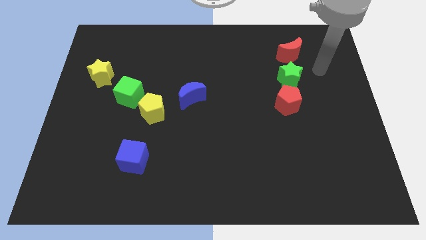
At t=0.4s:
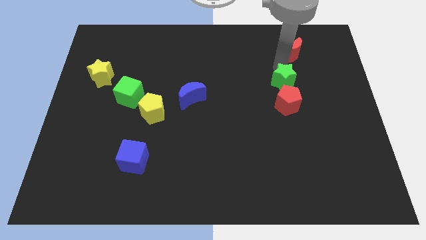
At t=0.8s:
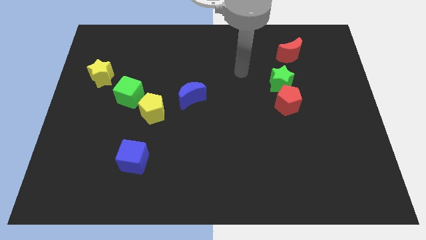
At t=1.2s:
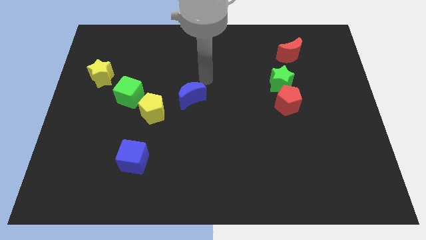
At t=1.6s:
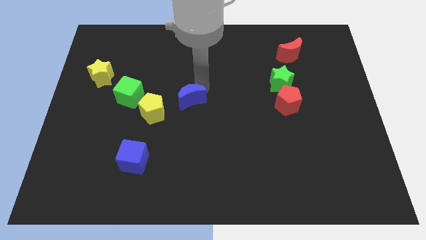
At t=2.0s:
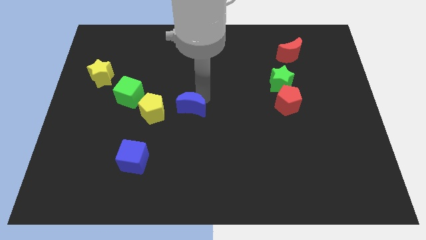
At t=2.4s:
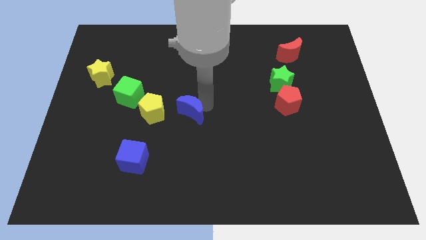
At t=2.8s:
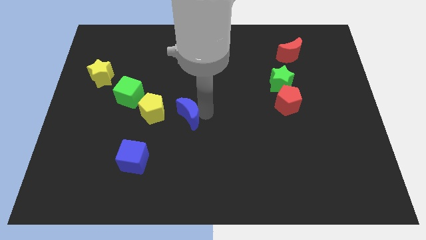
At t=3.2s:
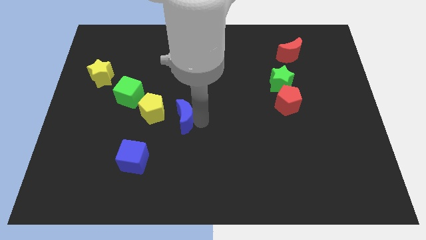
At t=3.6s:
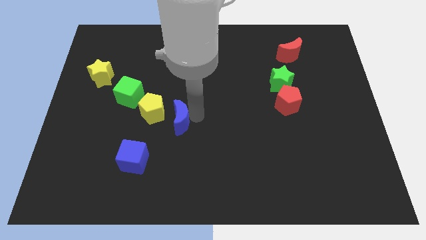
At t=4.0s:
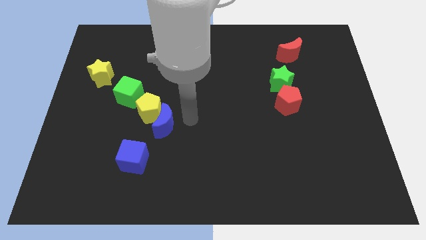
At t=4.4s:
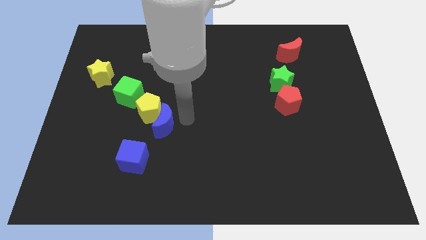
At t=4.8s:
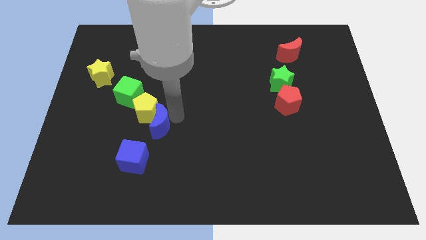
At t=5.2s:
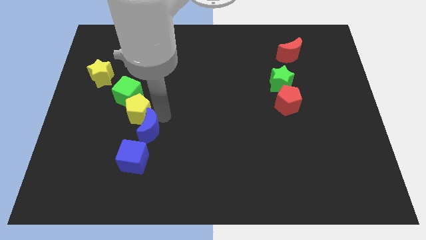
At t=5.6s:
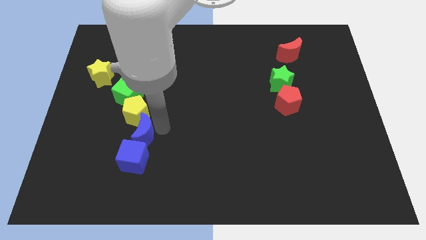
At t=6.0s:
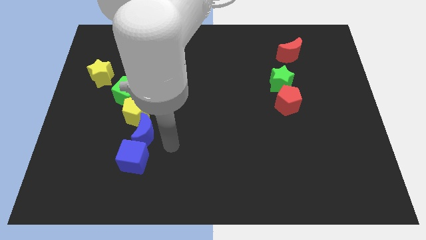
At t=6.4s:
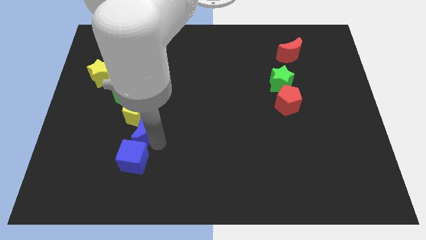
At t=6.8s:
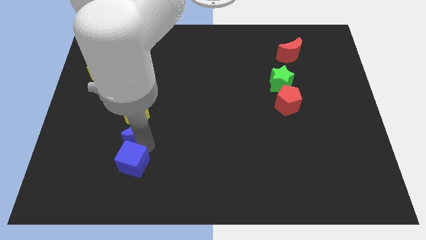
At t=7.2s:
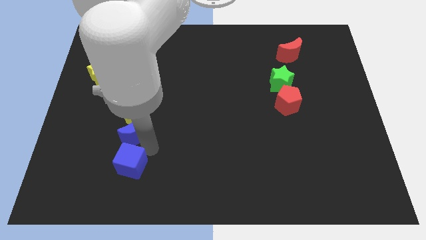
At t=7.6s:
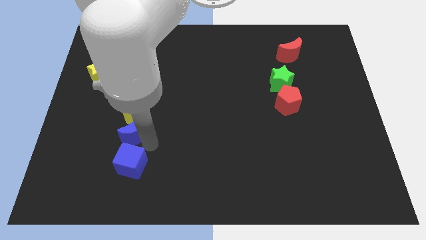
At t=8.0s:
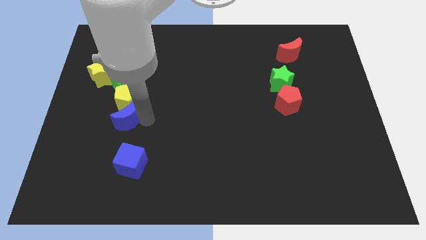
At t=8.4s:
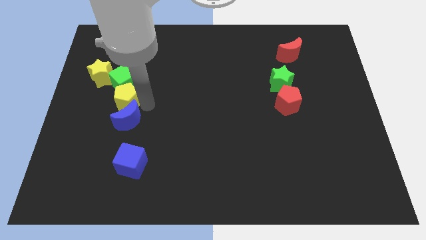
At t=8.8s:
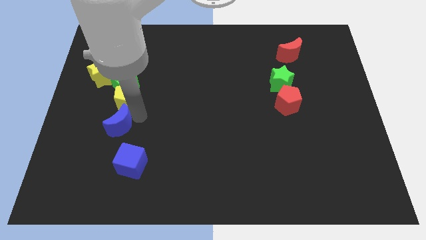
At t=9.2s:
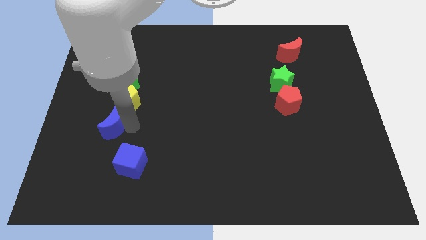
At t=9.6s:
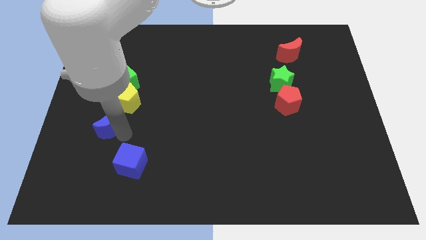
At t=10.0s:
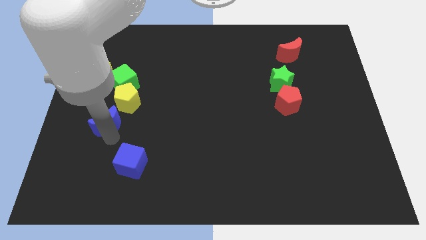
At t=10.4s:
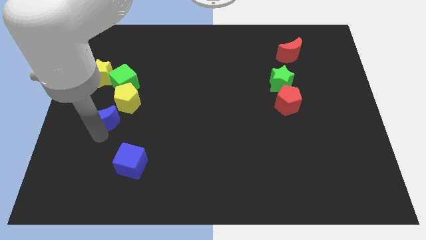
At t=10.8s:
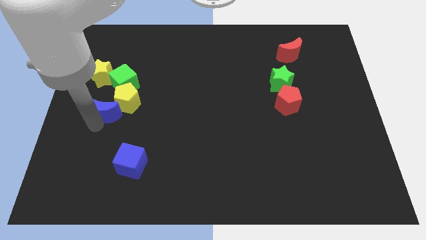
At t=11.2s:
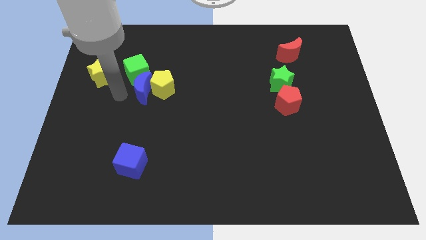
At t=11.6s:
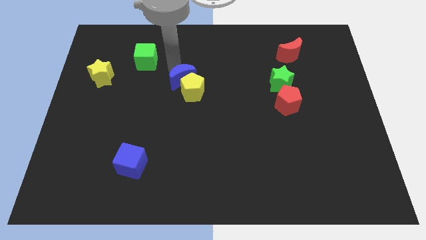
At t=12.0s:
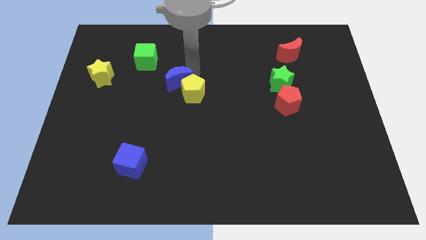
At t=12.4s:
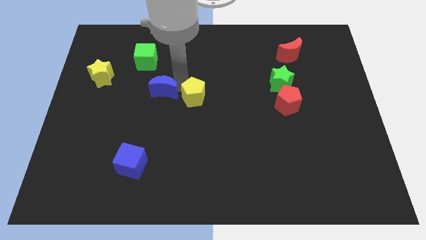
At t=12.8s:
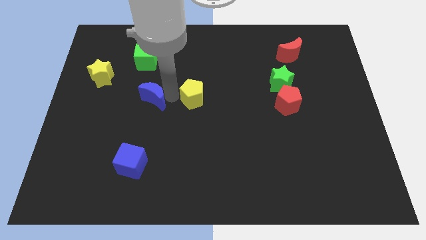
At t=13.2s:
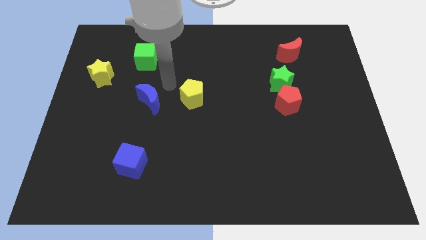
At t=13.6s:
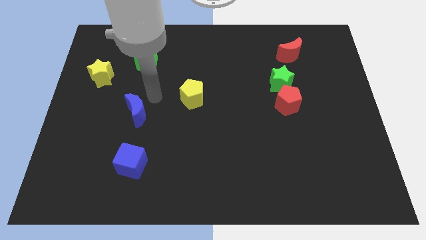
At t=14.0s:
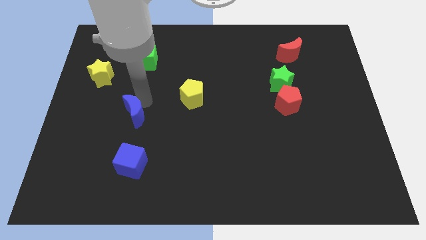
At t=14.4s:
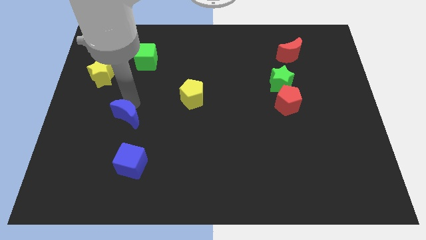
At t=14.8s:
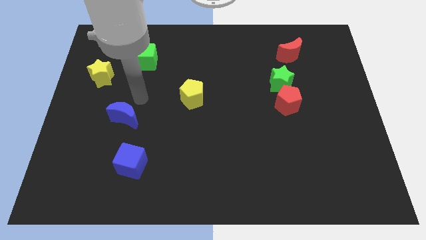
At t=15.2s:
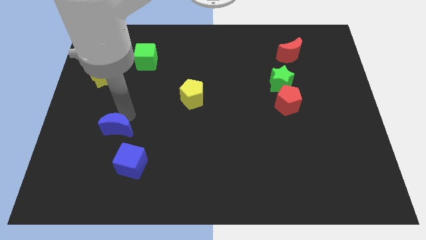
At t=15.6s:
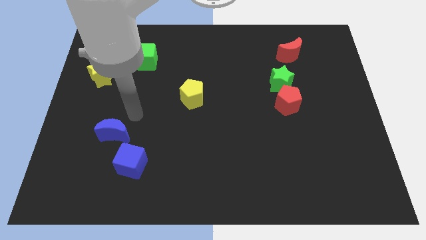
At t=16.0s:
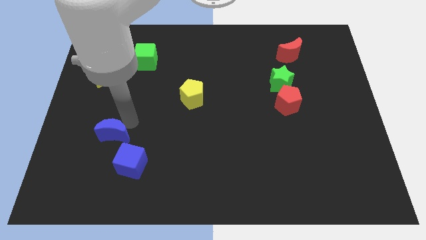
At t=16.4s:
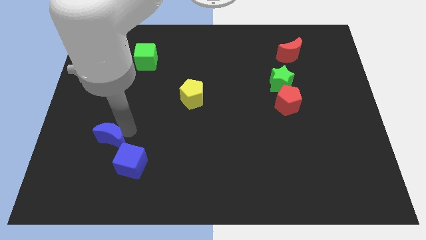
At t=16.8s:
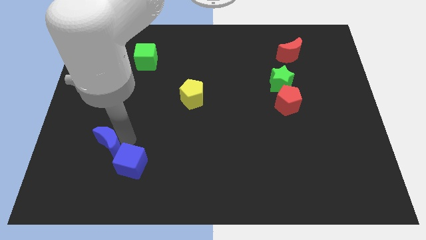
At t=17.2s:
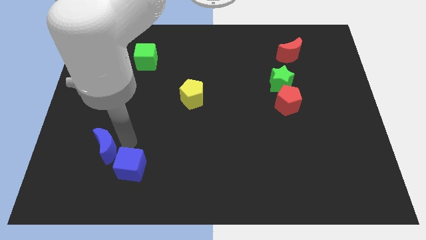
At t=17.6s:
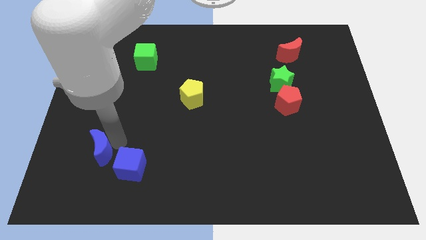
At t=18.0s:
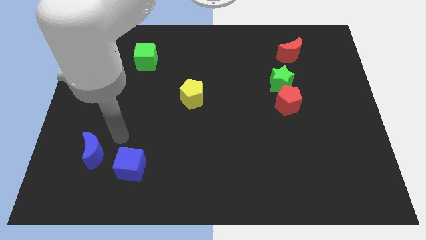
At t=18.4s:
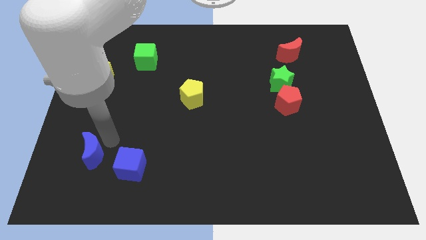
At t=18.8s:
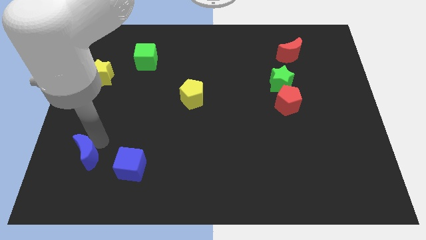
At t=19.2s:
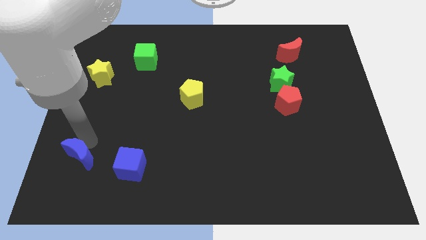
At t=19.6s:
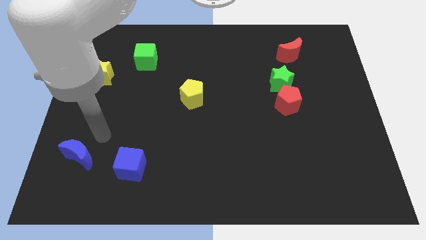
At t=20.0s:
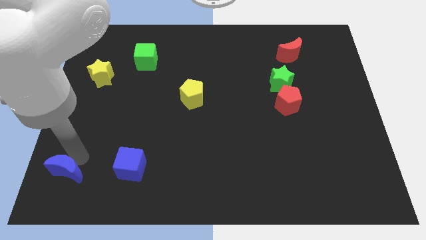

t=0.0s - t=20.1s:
put the blue moon to the bottom left of the board

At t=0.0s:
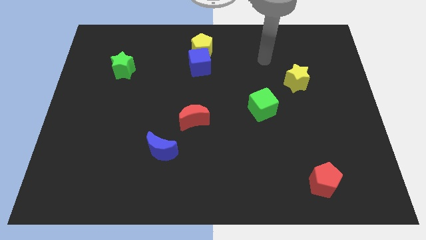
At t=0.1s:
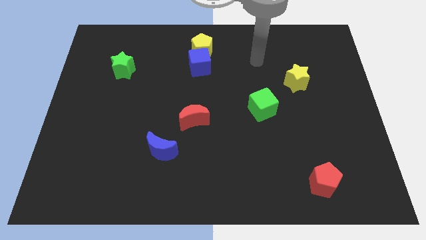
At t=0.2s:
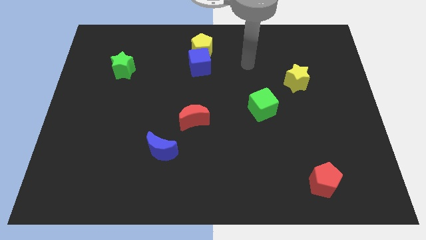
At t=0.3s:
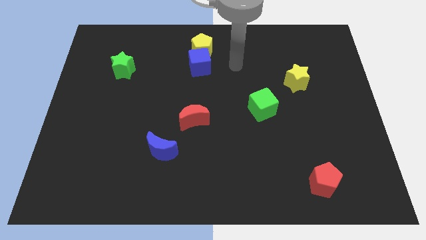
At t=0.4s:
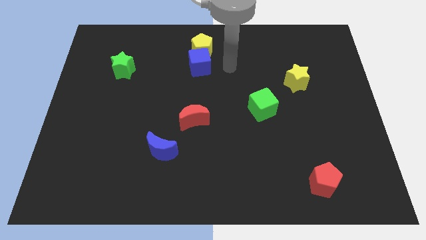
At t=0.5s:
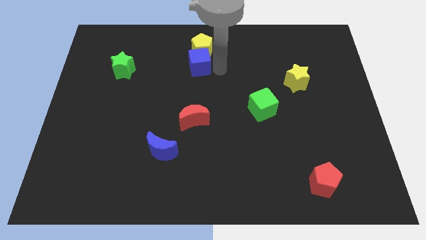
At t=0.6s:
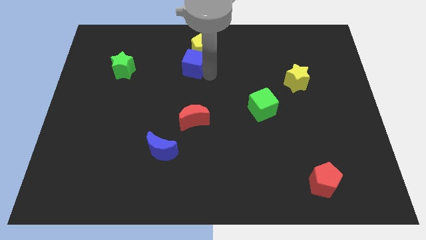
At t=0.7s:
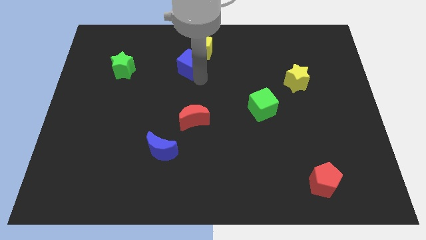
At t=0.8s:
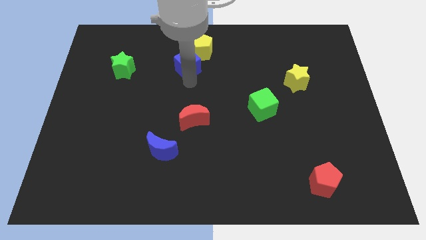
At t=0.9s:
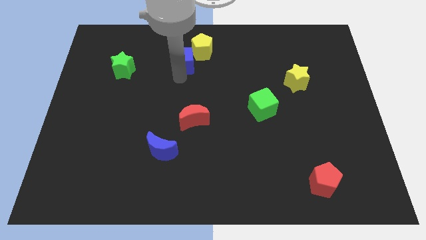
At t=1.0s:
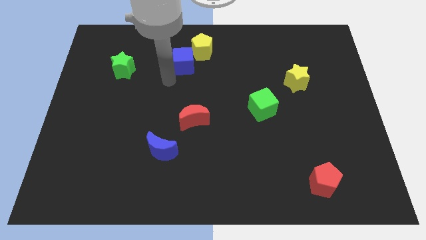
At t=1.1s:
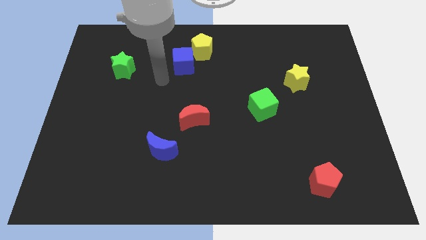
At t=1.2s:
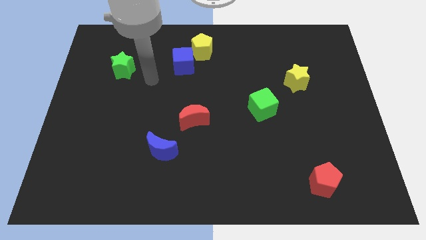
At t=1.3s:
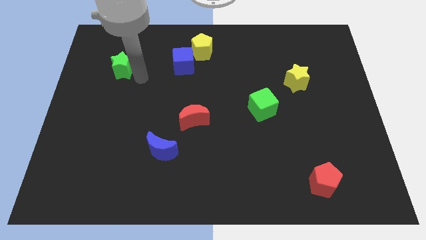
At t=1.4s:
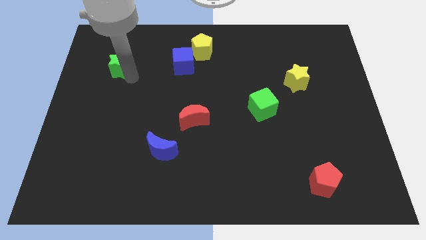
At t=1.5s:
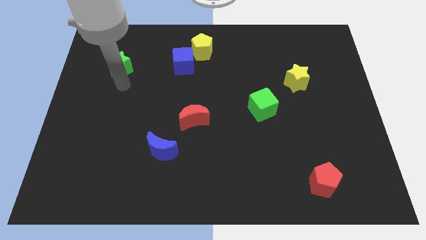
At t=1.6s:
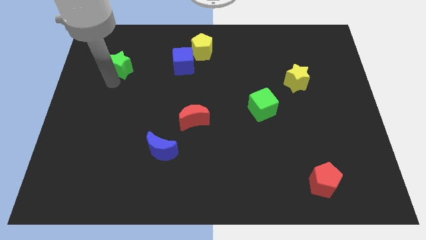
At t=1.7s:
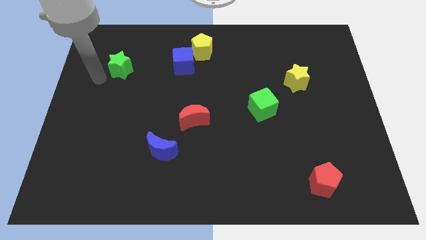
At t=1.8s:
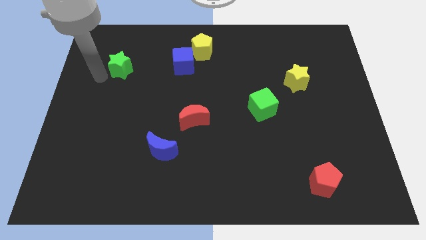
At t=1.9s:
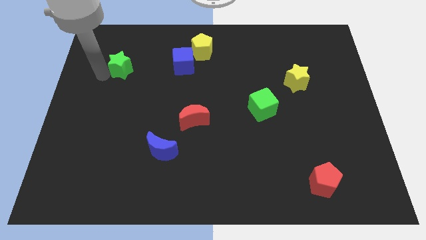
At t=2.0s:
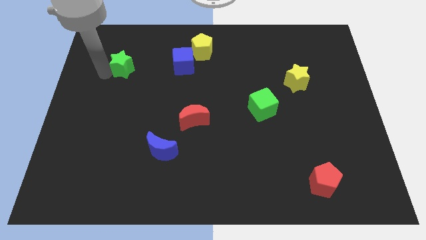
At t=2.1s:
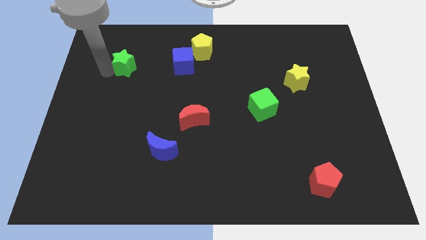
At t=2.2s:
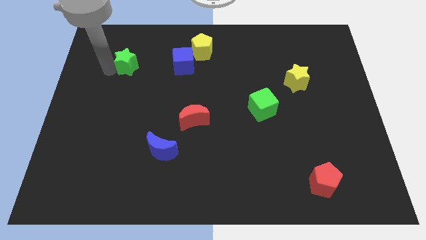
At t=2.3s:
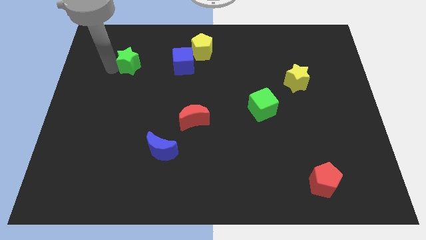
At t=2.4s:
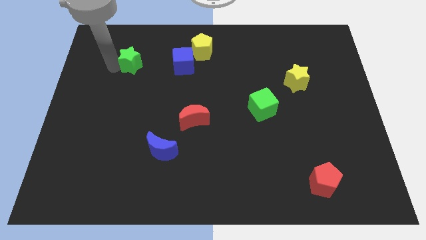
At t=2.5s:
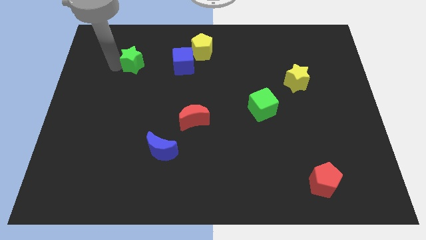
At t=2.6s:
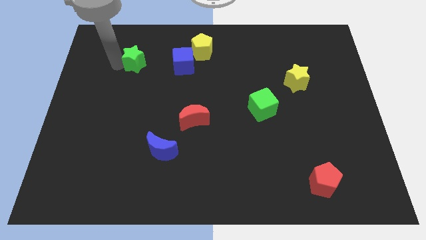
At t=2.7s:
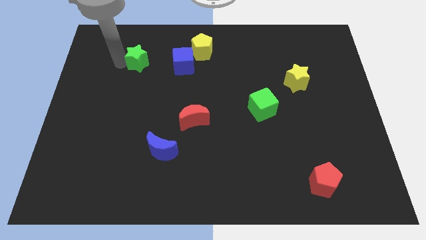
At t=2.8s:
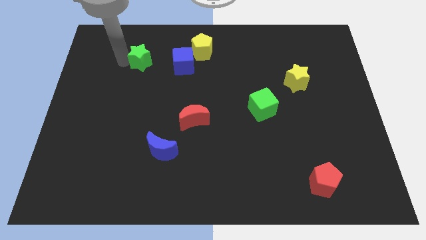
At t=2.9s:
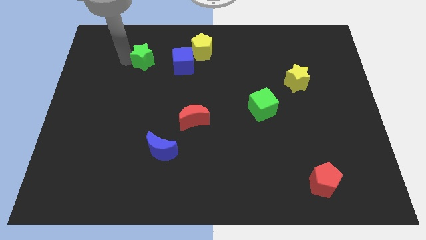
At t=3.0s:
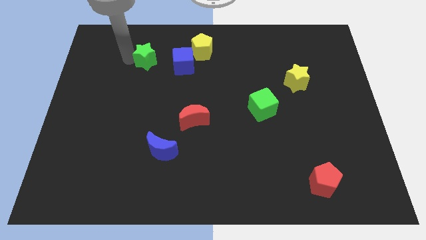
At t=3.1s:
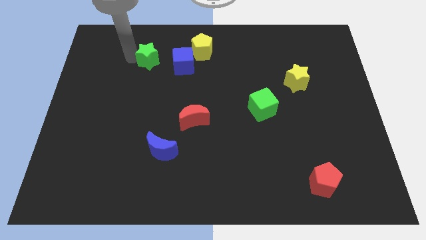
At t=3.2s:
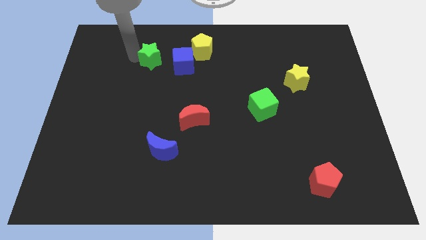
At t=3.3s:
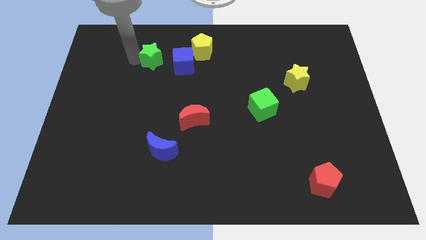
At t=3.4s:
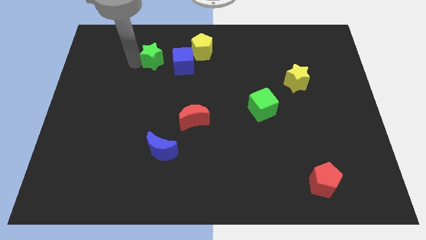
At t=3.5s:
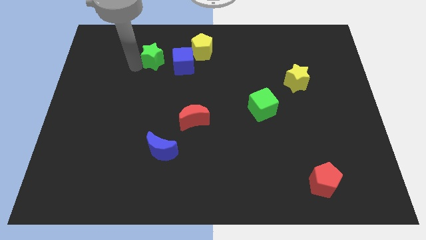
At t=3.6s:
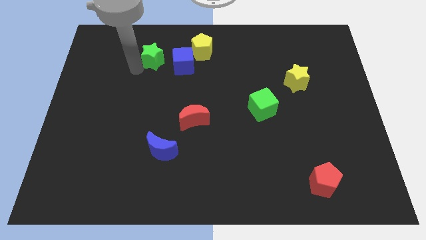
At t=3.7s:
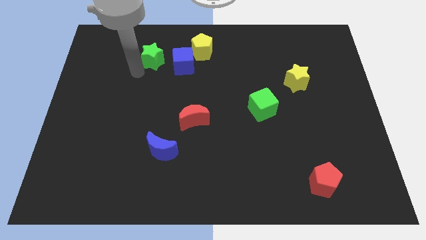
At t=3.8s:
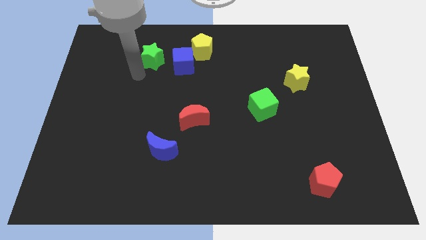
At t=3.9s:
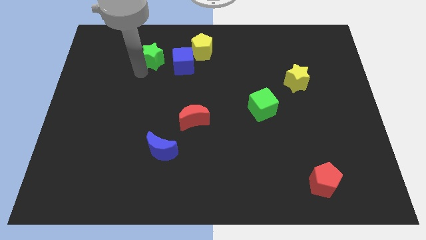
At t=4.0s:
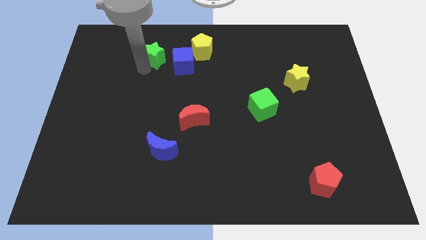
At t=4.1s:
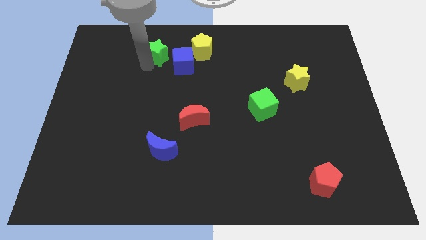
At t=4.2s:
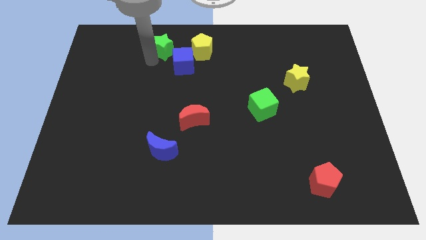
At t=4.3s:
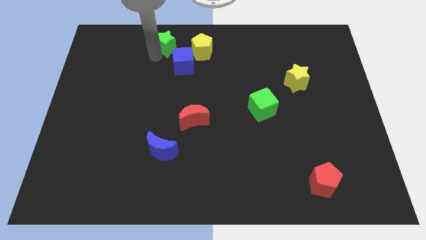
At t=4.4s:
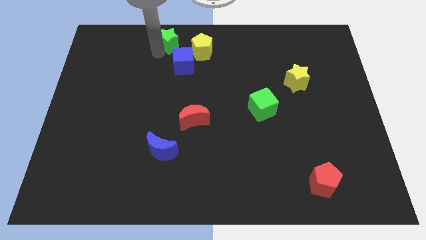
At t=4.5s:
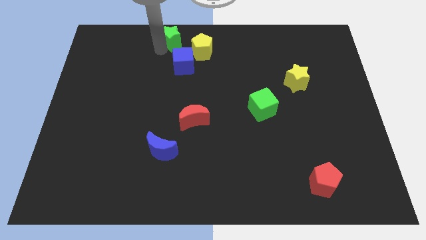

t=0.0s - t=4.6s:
slide the green star to the top side
